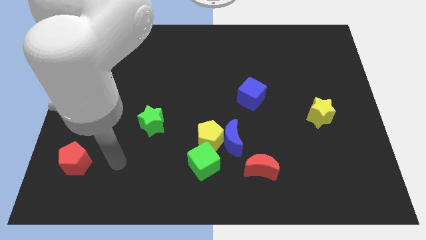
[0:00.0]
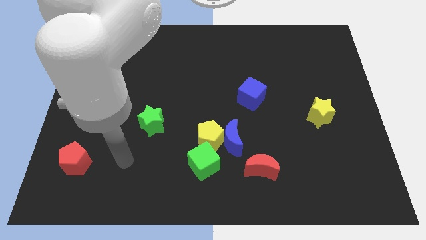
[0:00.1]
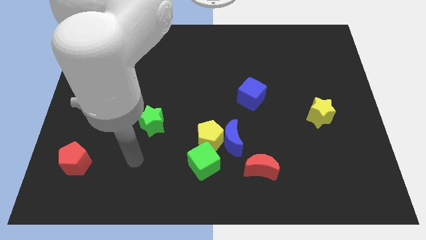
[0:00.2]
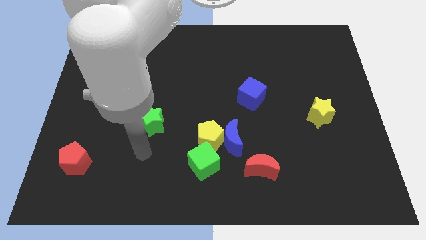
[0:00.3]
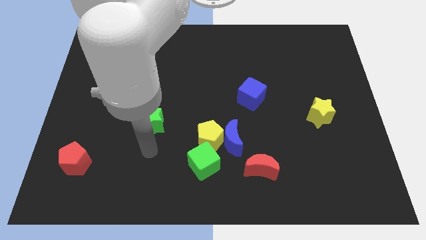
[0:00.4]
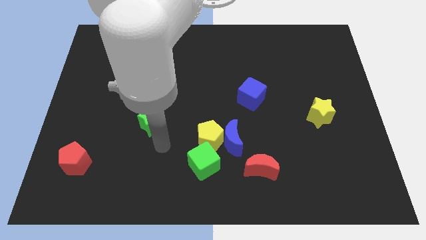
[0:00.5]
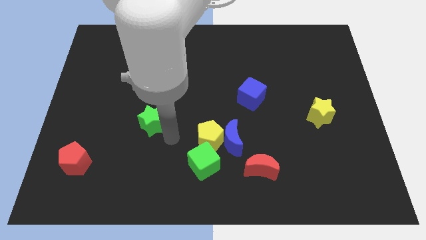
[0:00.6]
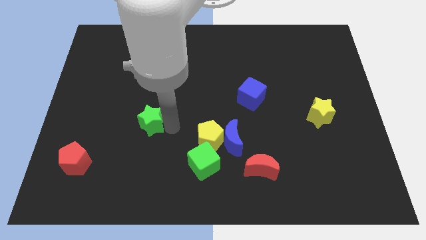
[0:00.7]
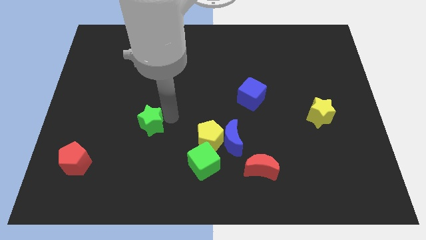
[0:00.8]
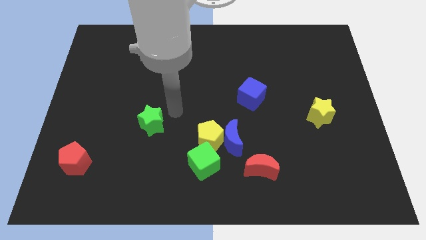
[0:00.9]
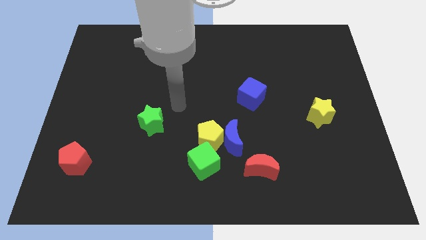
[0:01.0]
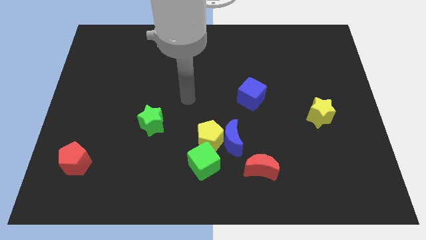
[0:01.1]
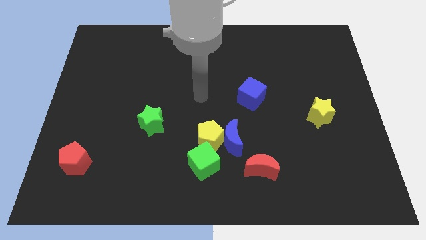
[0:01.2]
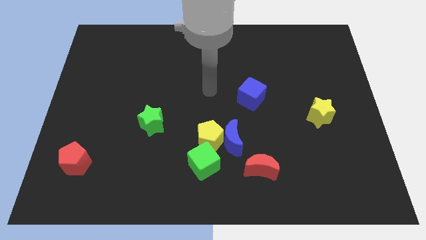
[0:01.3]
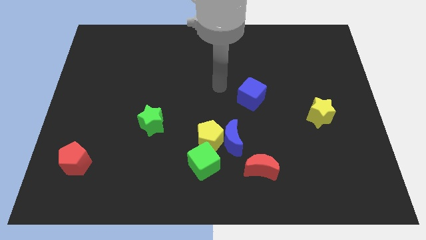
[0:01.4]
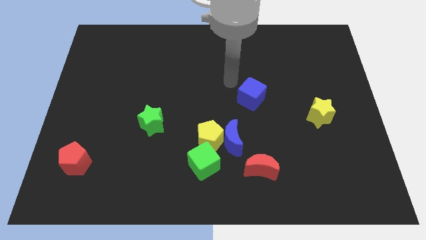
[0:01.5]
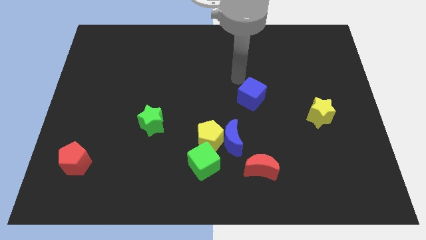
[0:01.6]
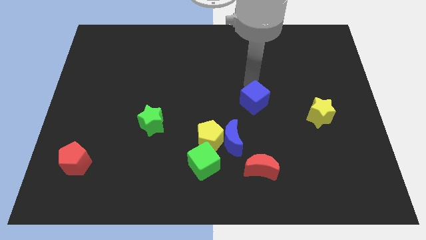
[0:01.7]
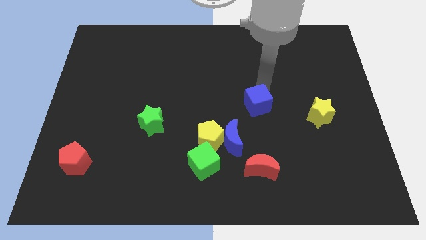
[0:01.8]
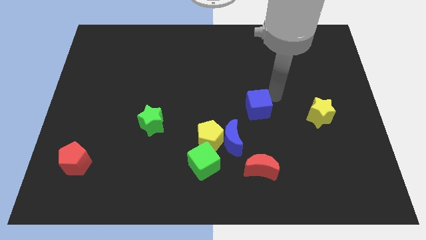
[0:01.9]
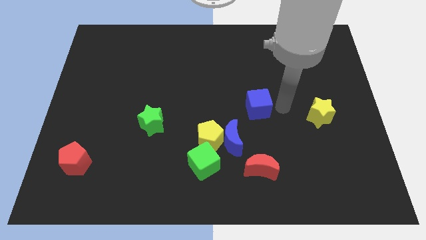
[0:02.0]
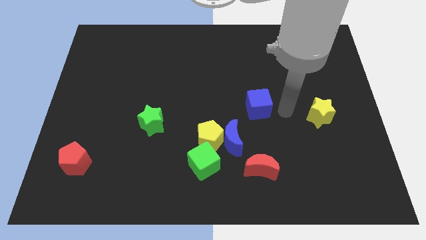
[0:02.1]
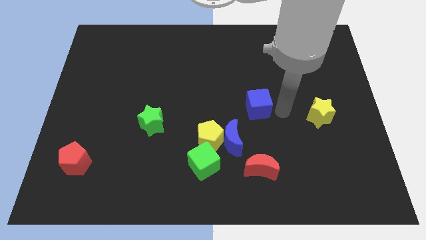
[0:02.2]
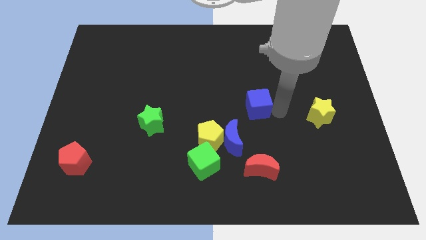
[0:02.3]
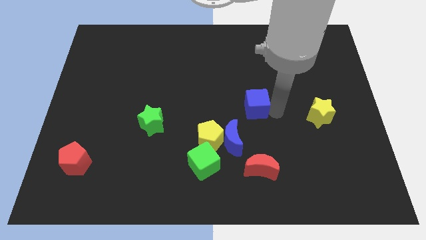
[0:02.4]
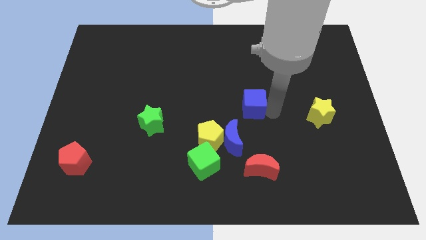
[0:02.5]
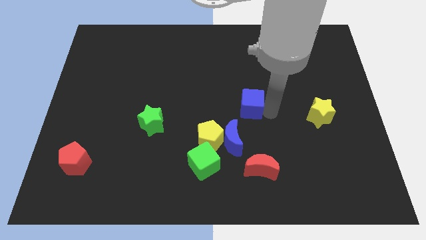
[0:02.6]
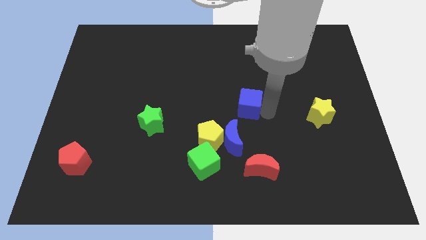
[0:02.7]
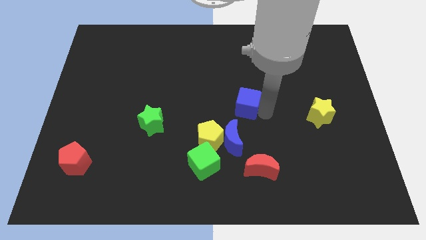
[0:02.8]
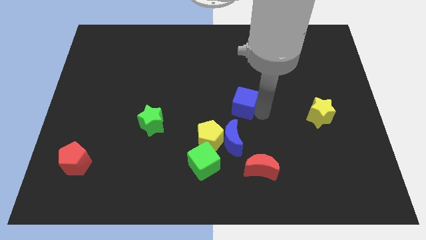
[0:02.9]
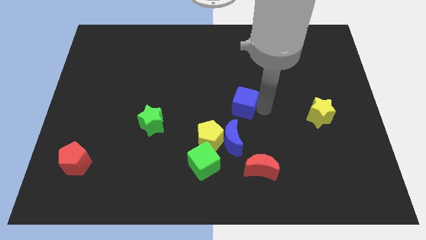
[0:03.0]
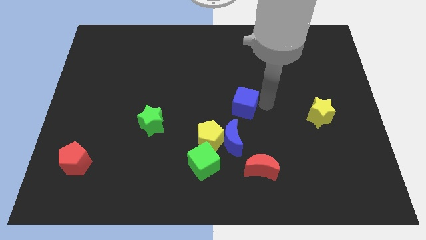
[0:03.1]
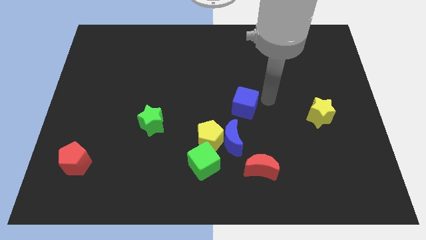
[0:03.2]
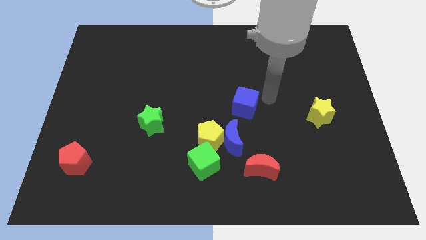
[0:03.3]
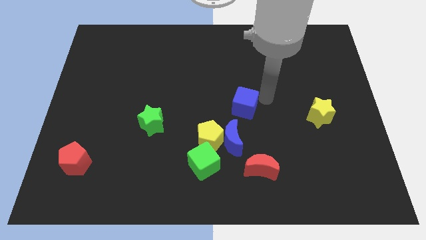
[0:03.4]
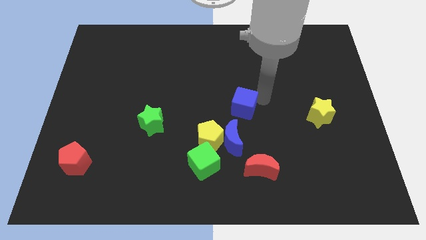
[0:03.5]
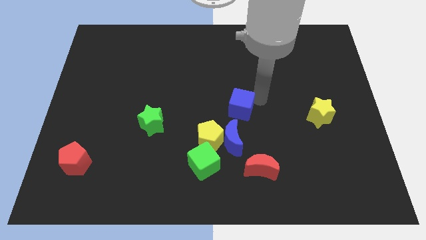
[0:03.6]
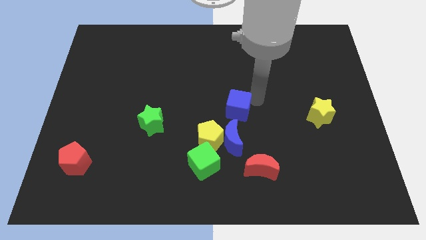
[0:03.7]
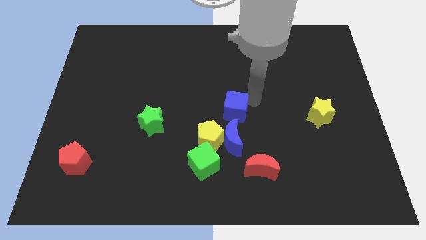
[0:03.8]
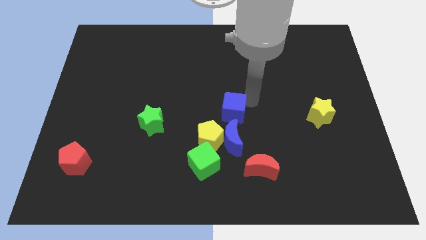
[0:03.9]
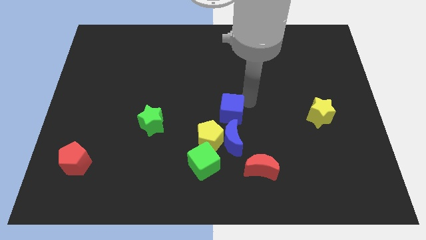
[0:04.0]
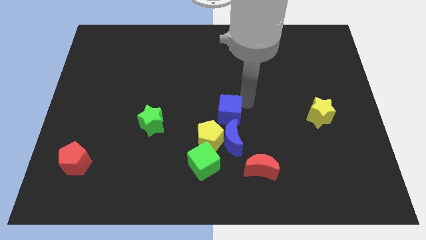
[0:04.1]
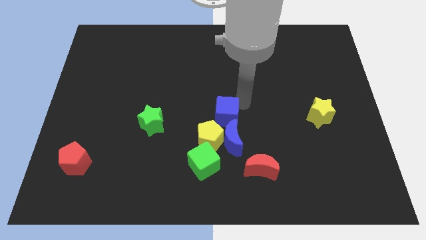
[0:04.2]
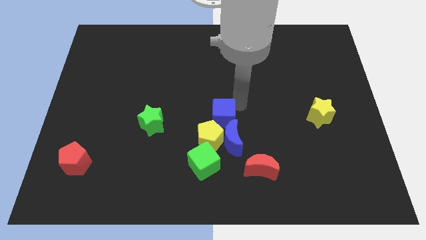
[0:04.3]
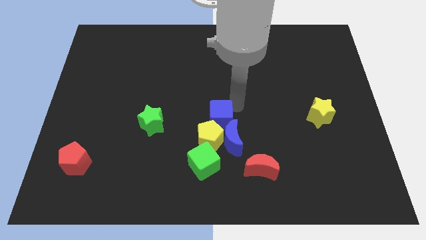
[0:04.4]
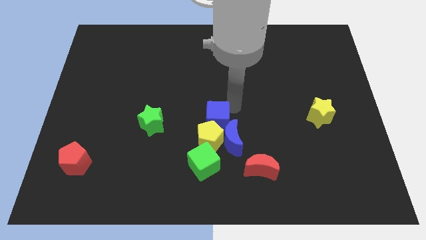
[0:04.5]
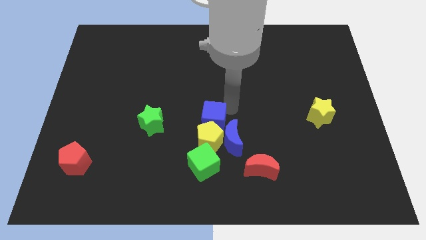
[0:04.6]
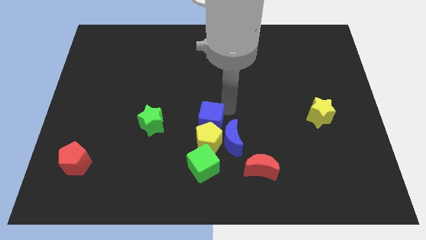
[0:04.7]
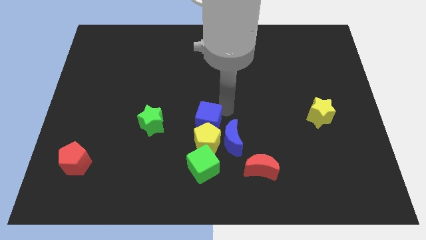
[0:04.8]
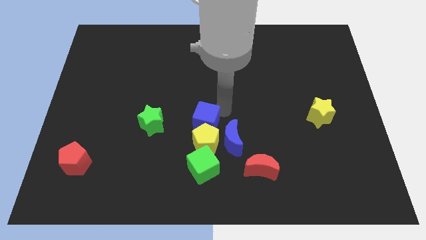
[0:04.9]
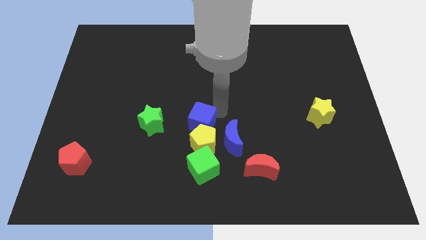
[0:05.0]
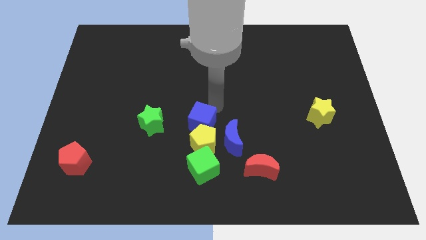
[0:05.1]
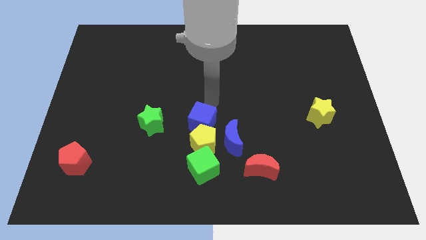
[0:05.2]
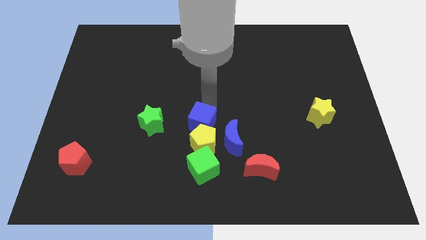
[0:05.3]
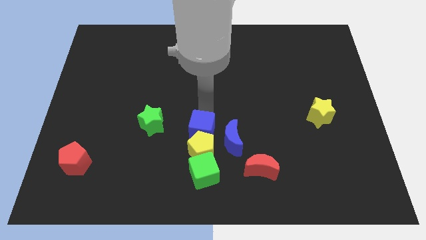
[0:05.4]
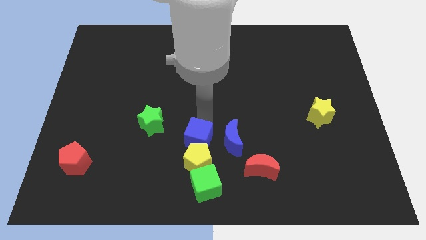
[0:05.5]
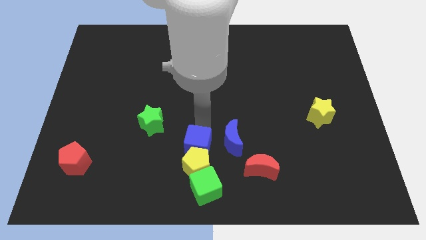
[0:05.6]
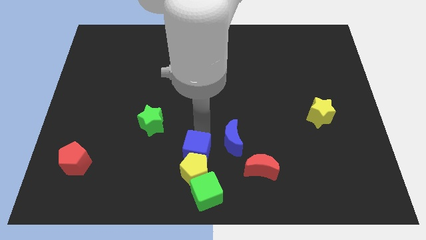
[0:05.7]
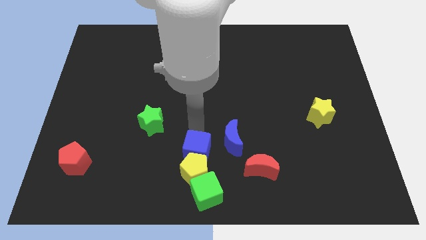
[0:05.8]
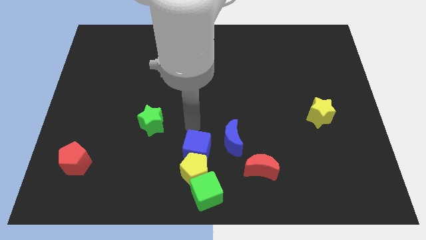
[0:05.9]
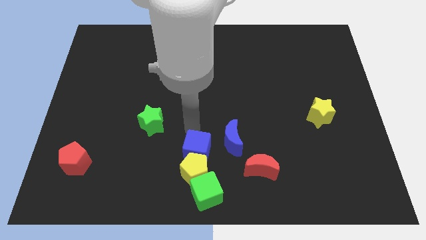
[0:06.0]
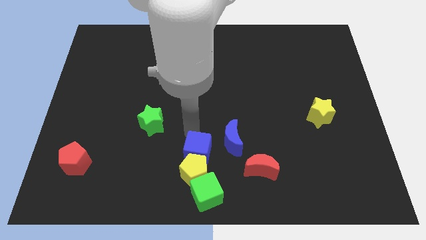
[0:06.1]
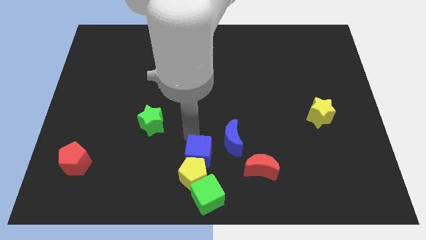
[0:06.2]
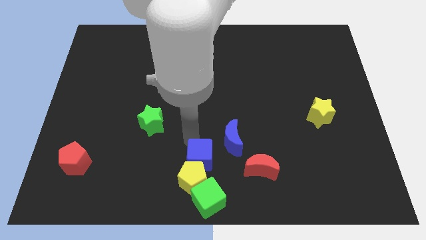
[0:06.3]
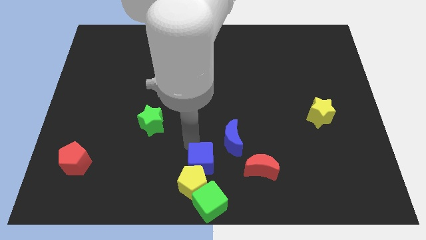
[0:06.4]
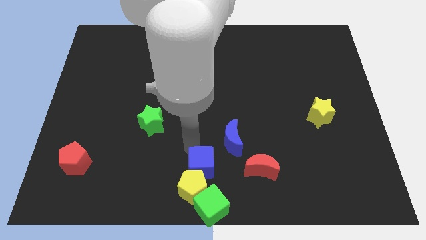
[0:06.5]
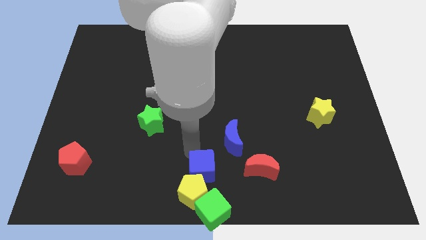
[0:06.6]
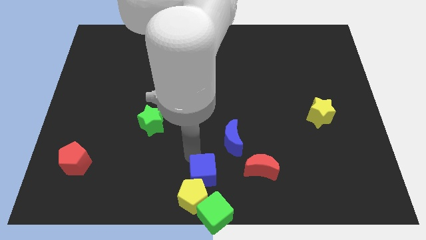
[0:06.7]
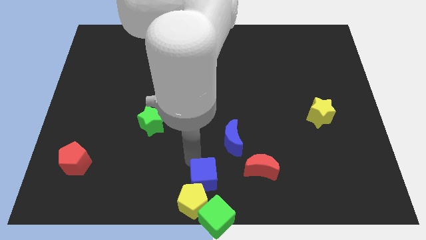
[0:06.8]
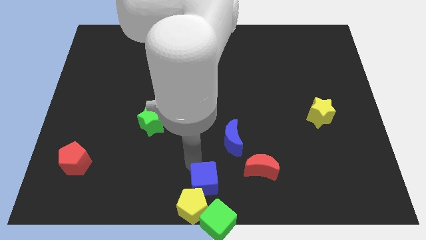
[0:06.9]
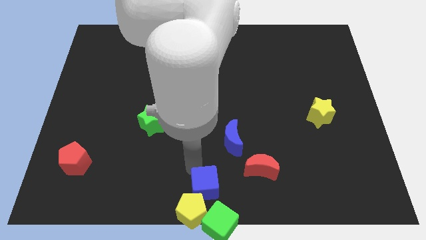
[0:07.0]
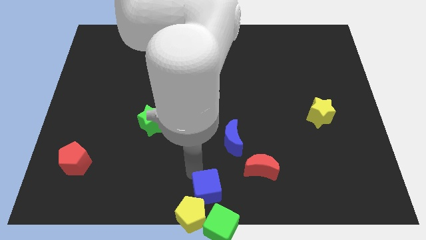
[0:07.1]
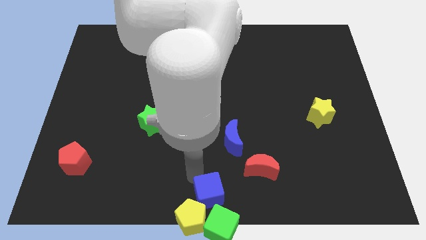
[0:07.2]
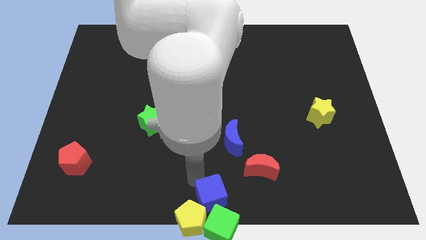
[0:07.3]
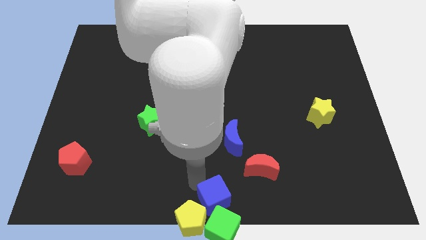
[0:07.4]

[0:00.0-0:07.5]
push the blue cube close to the green cube
